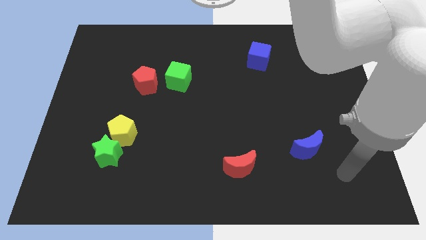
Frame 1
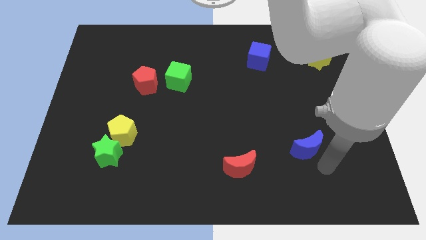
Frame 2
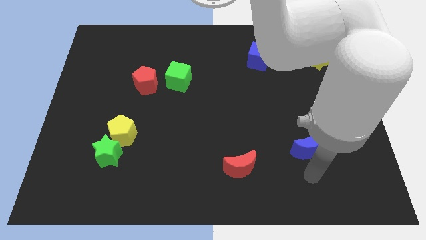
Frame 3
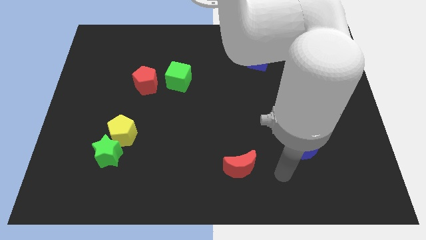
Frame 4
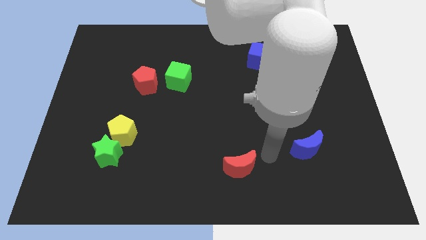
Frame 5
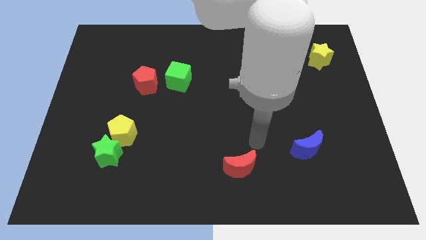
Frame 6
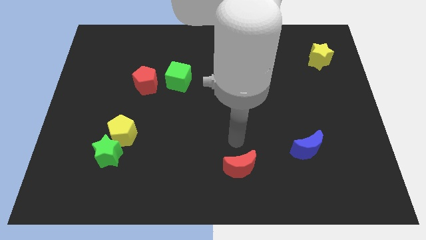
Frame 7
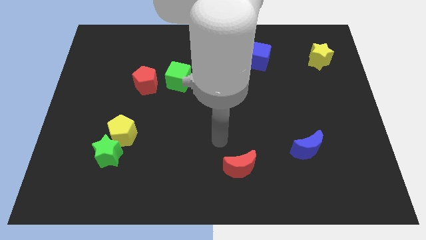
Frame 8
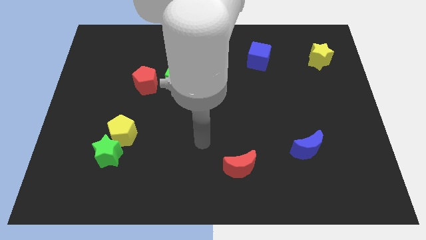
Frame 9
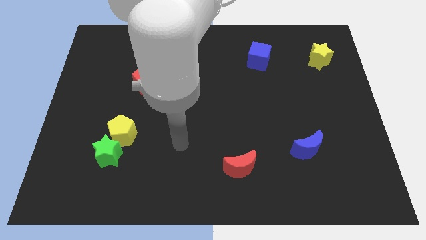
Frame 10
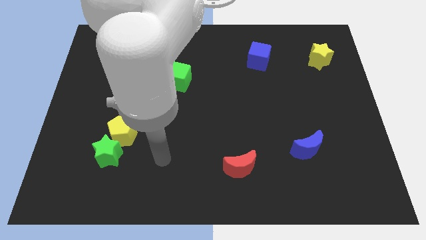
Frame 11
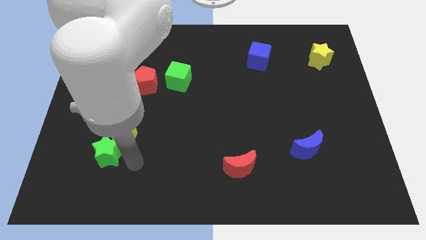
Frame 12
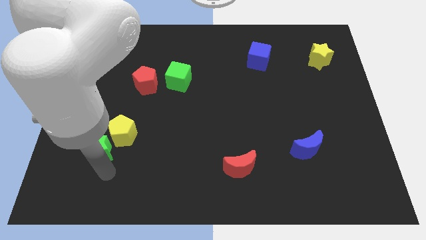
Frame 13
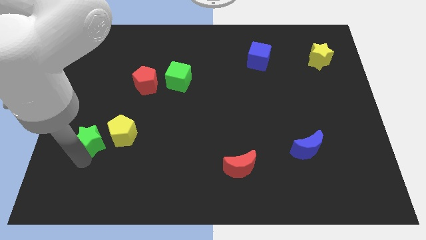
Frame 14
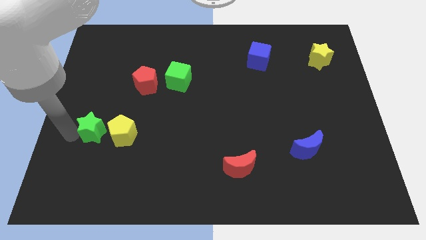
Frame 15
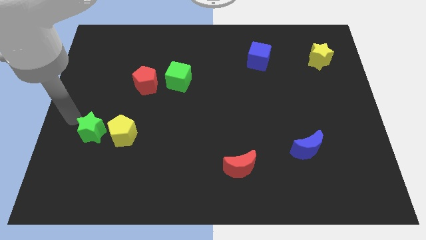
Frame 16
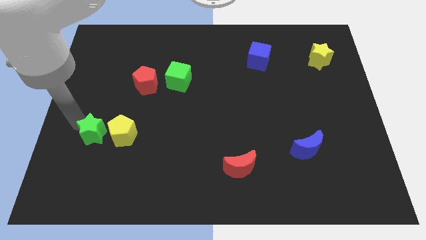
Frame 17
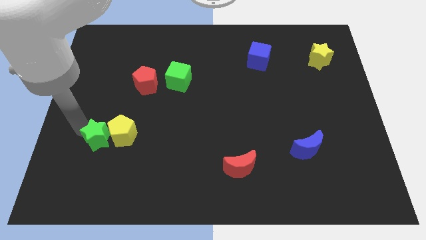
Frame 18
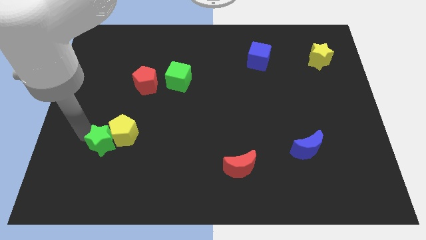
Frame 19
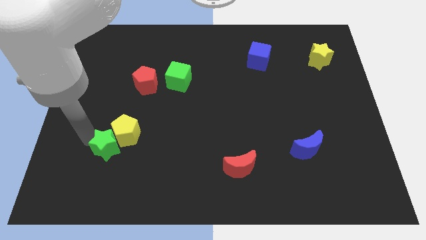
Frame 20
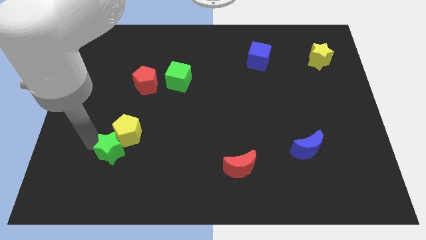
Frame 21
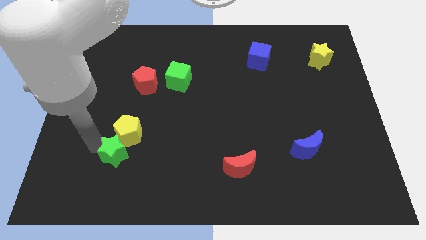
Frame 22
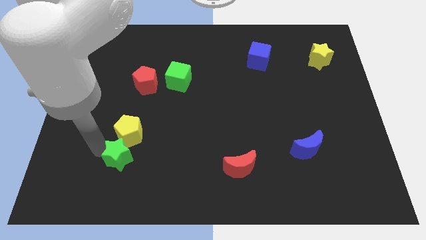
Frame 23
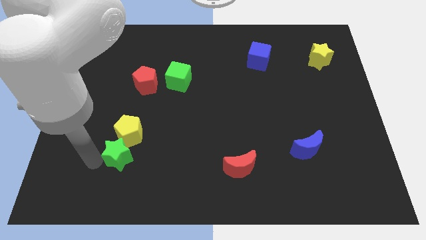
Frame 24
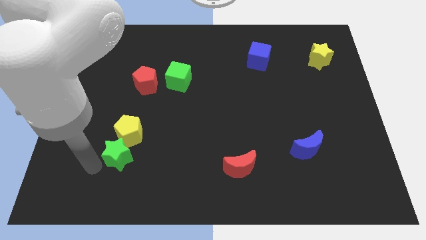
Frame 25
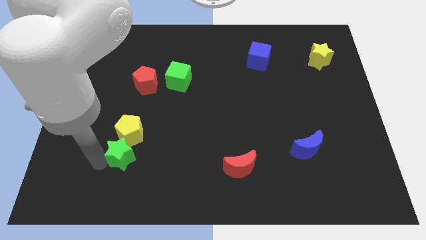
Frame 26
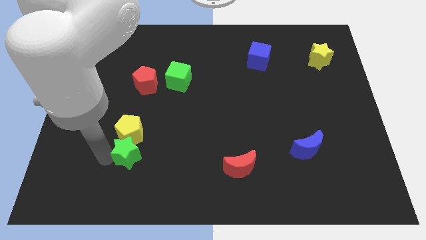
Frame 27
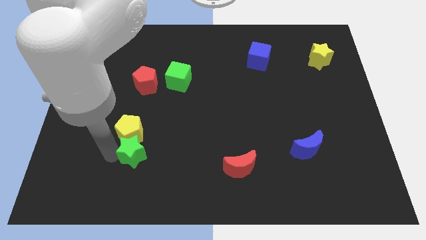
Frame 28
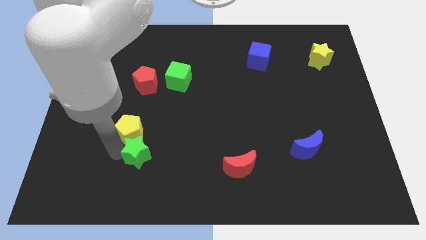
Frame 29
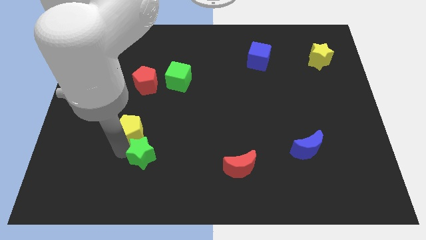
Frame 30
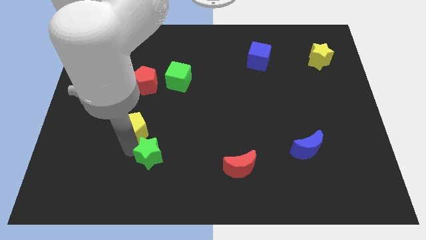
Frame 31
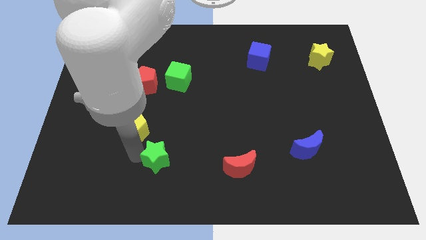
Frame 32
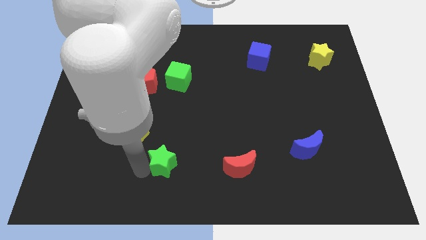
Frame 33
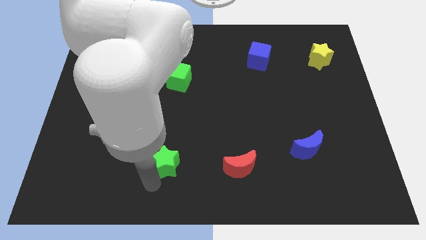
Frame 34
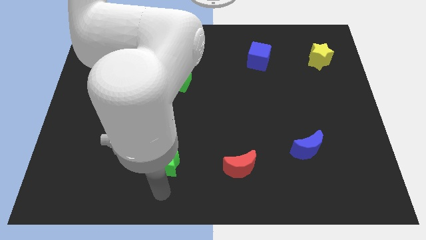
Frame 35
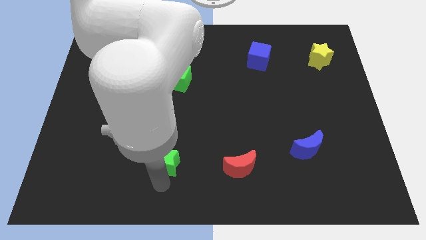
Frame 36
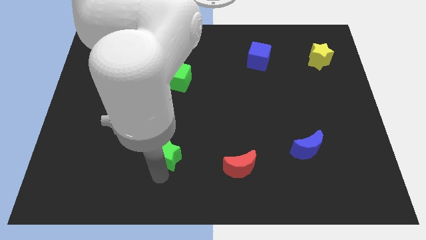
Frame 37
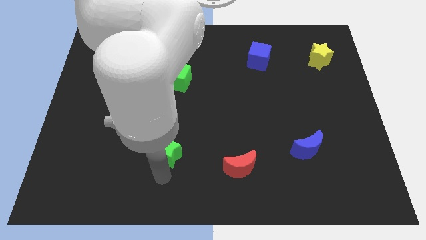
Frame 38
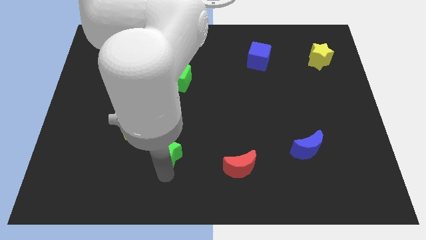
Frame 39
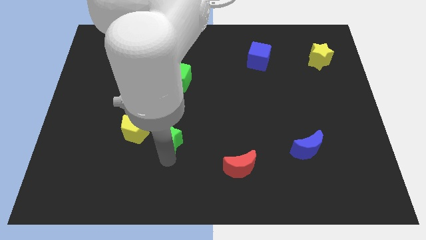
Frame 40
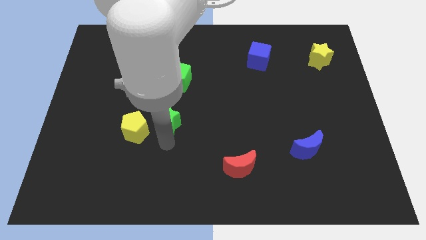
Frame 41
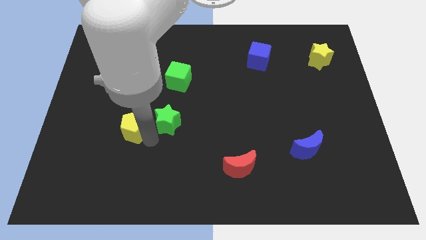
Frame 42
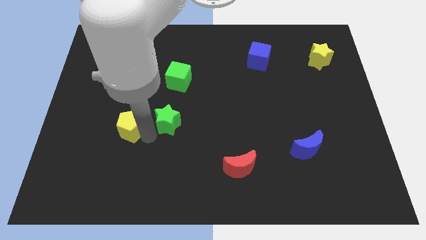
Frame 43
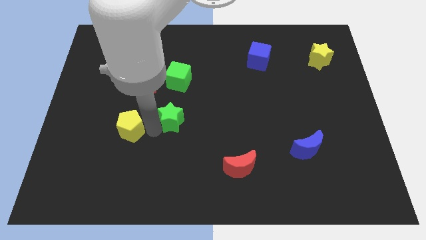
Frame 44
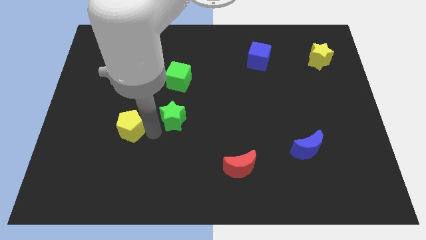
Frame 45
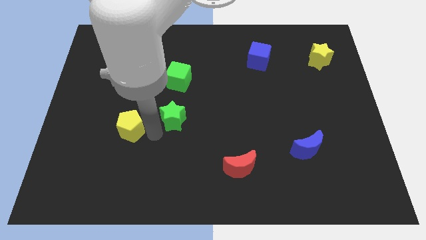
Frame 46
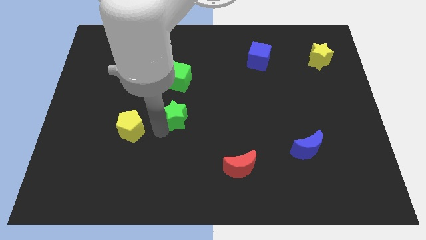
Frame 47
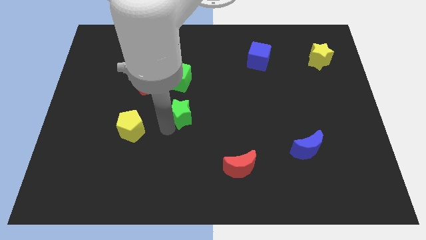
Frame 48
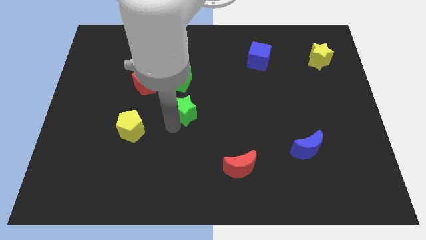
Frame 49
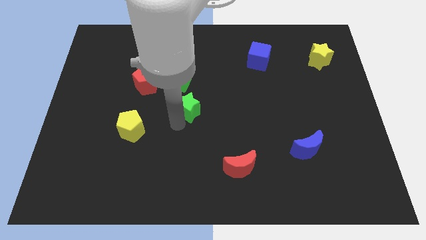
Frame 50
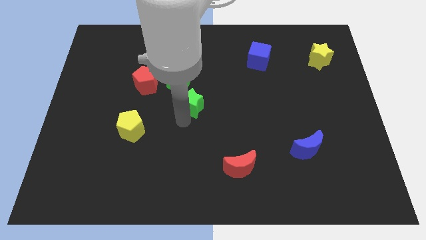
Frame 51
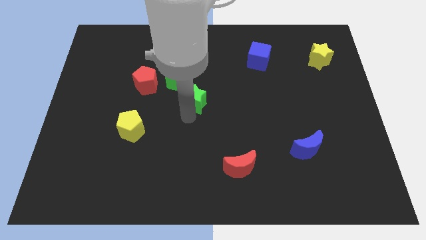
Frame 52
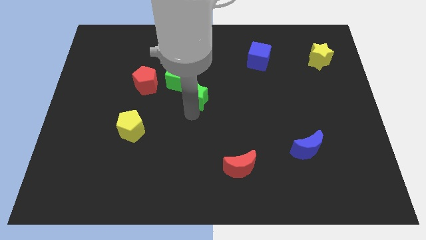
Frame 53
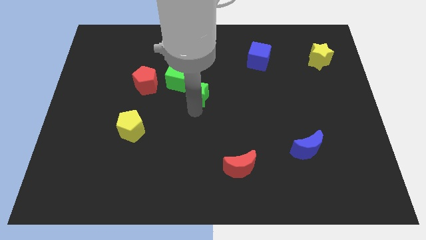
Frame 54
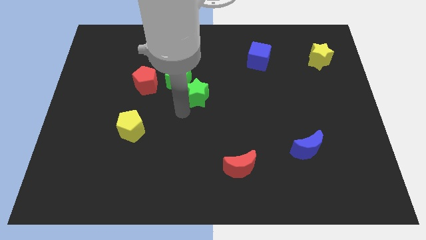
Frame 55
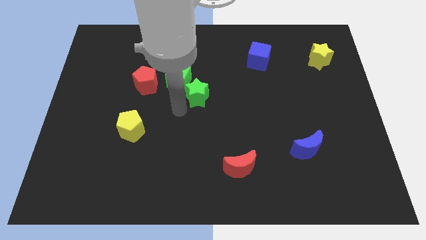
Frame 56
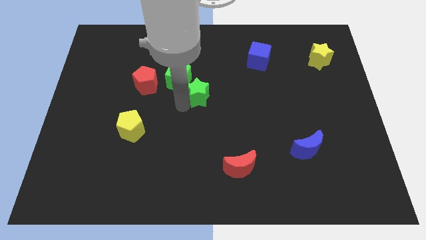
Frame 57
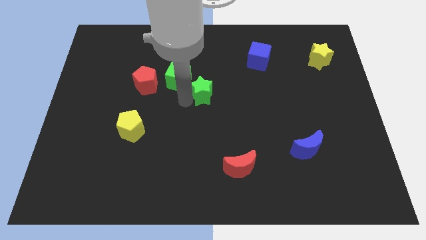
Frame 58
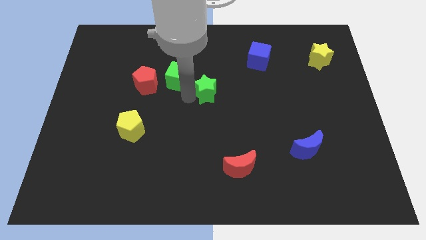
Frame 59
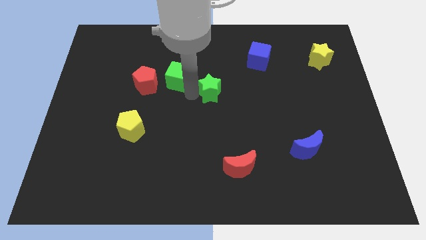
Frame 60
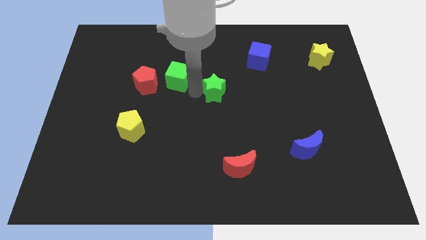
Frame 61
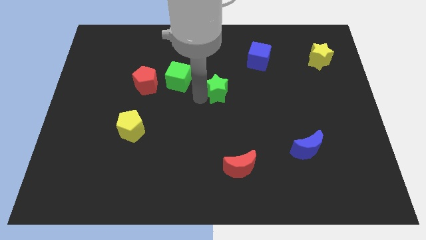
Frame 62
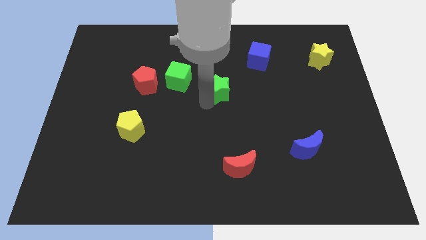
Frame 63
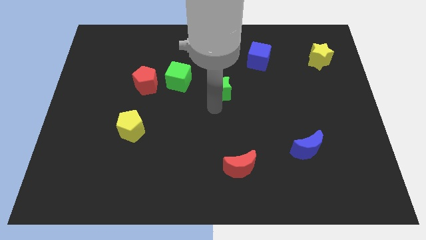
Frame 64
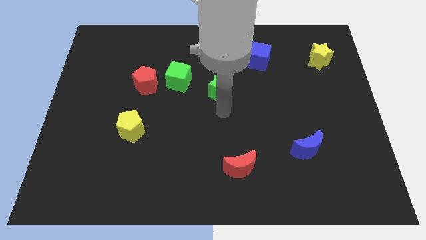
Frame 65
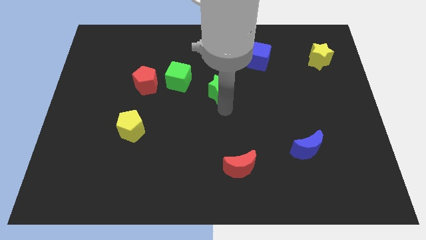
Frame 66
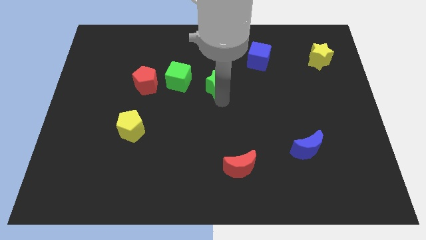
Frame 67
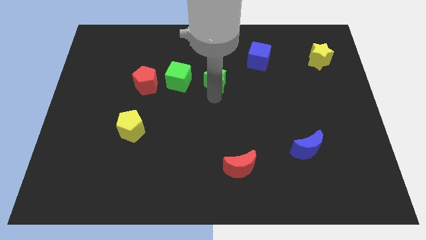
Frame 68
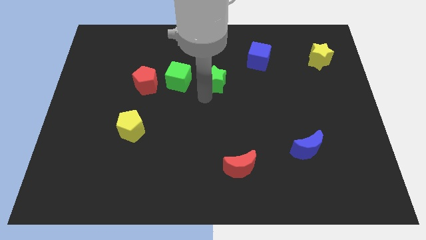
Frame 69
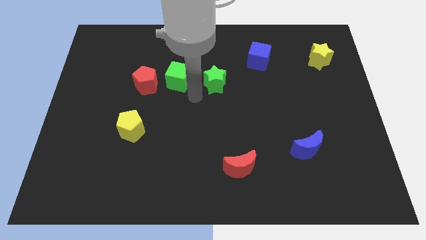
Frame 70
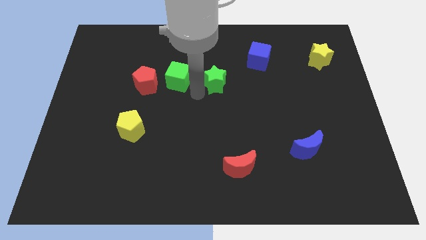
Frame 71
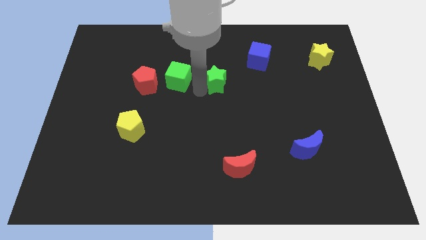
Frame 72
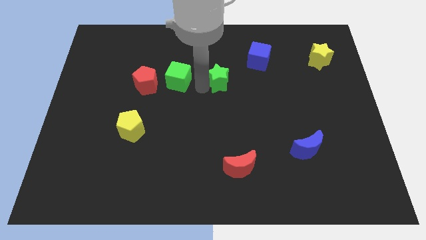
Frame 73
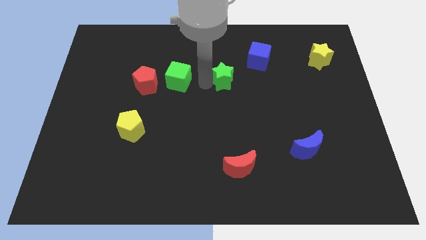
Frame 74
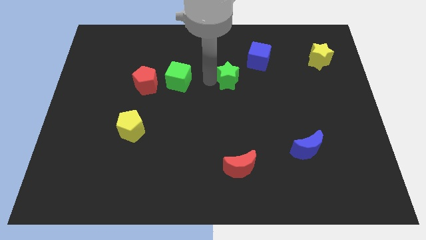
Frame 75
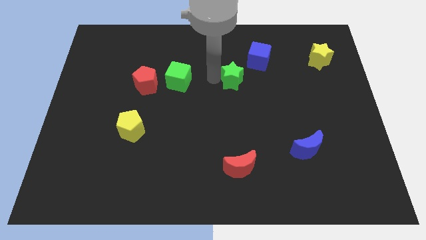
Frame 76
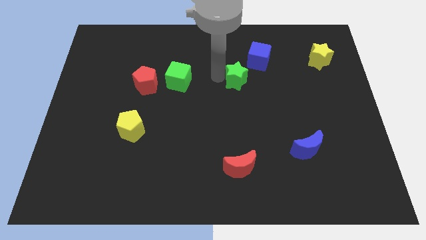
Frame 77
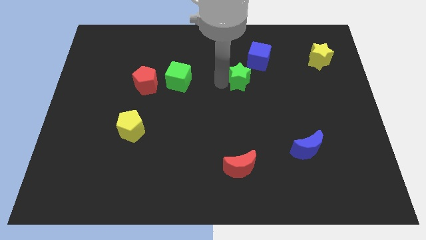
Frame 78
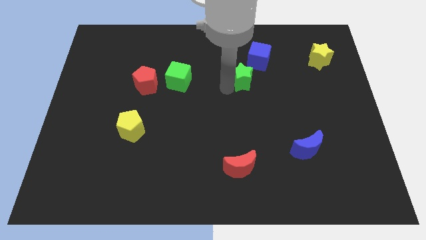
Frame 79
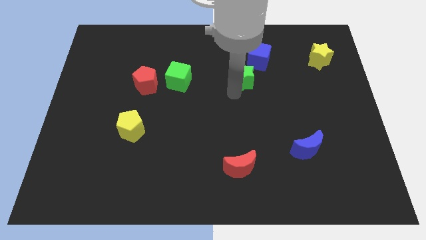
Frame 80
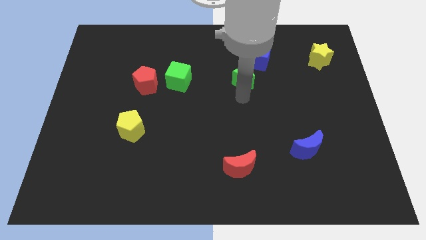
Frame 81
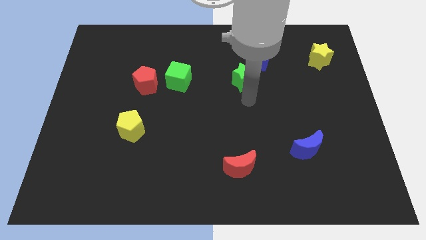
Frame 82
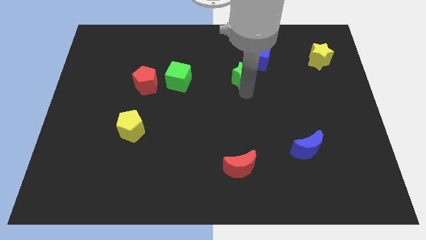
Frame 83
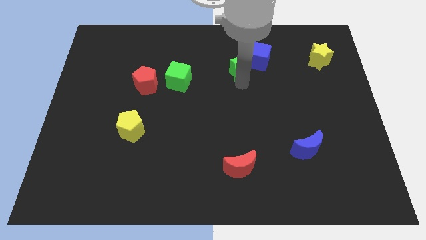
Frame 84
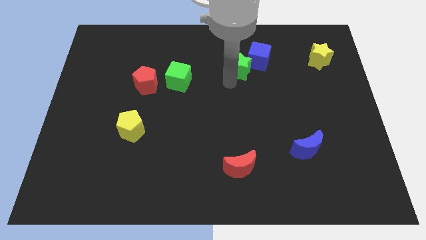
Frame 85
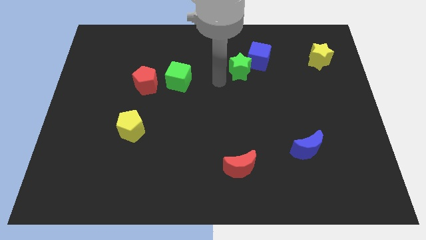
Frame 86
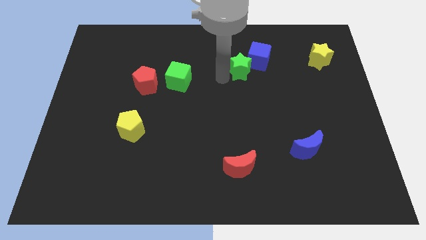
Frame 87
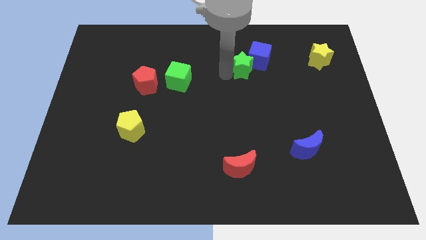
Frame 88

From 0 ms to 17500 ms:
slide the green star towards the blue cube
